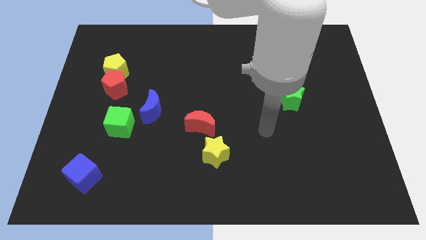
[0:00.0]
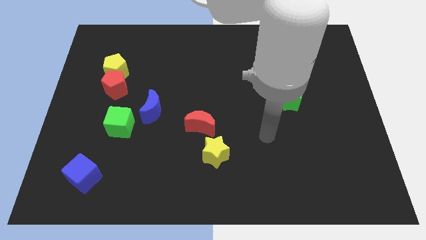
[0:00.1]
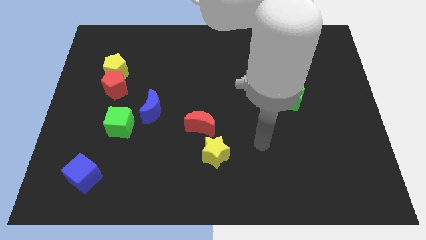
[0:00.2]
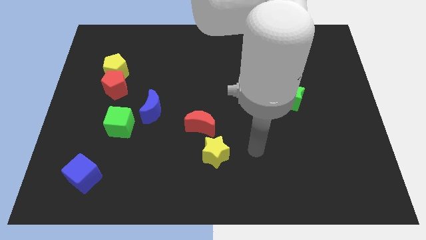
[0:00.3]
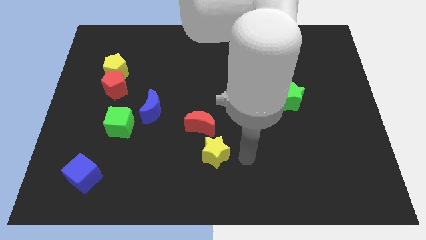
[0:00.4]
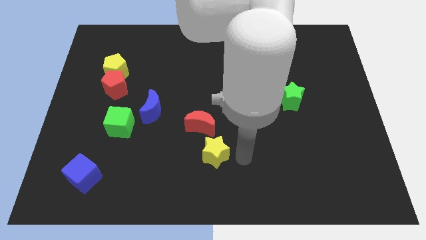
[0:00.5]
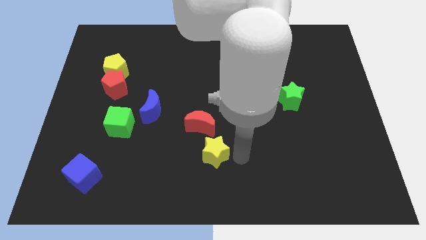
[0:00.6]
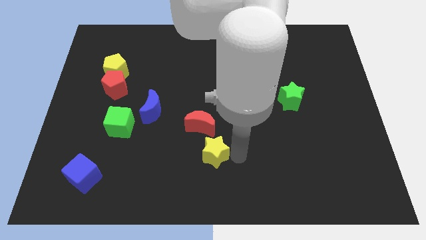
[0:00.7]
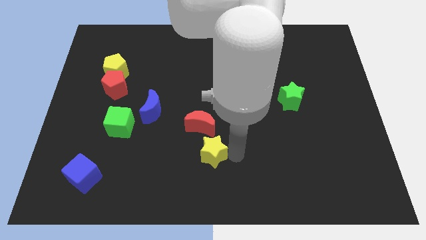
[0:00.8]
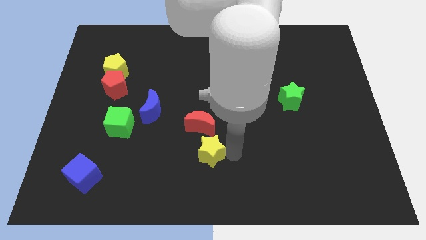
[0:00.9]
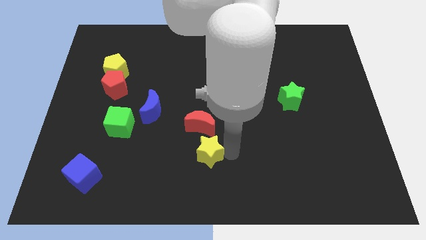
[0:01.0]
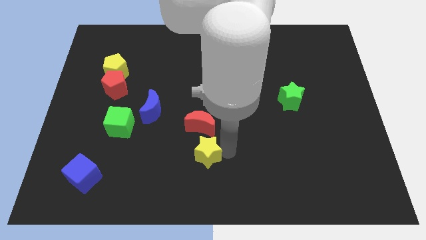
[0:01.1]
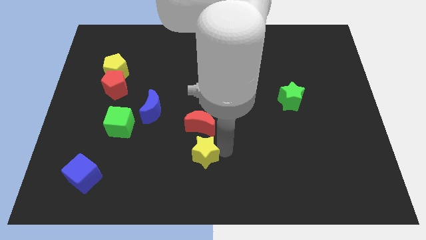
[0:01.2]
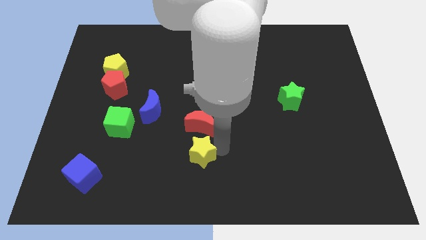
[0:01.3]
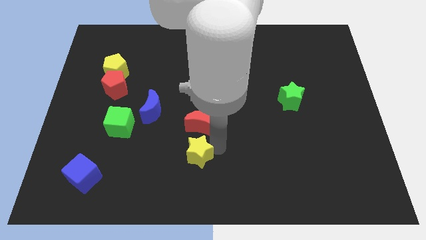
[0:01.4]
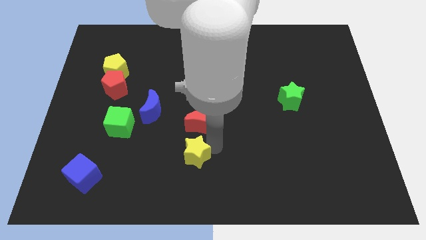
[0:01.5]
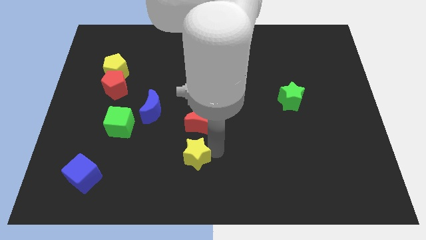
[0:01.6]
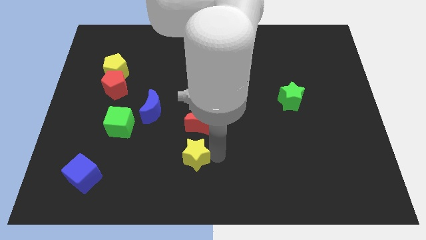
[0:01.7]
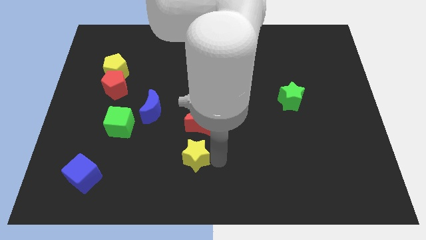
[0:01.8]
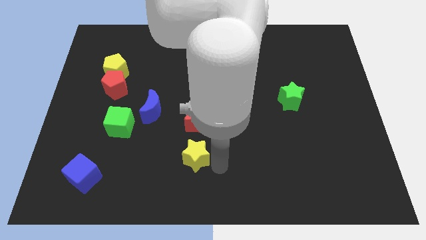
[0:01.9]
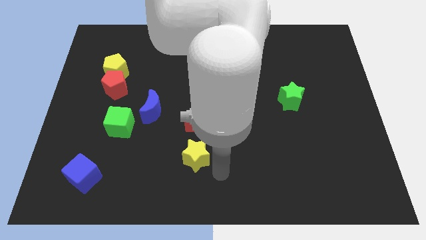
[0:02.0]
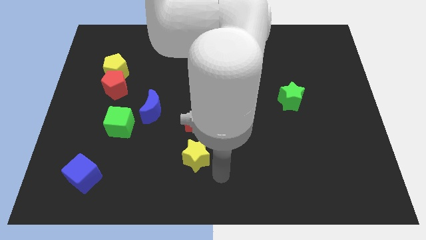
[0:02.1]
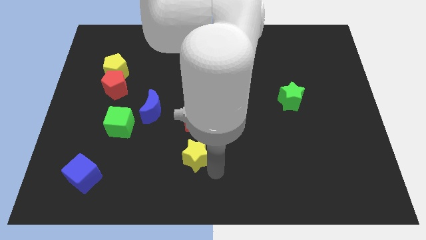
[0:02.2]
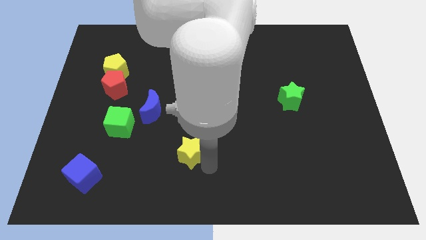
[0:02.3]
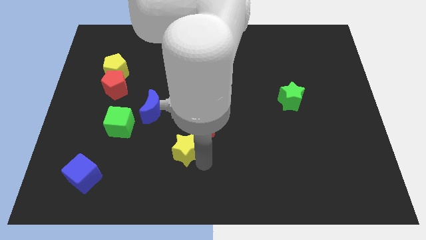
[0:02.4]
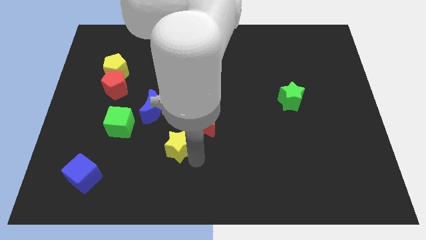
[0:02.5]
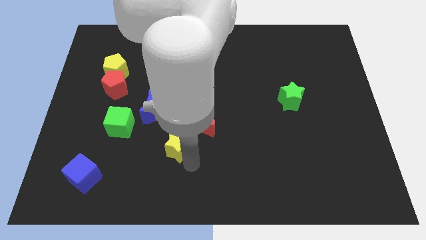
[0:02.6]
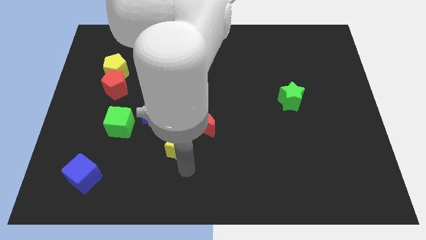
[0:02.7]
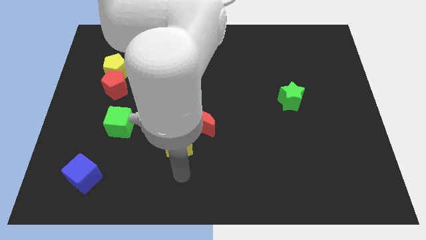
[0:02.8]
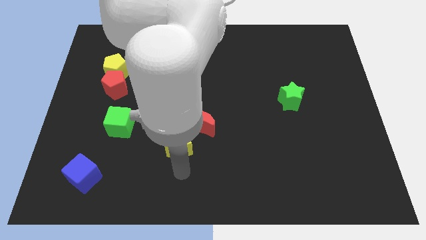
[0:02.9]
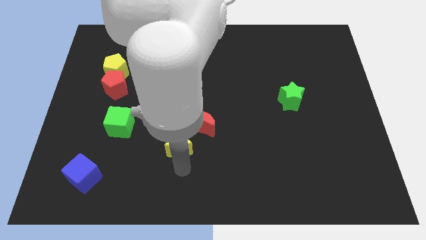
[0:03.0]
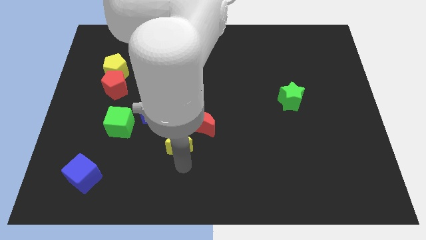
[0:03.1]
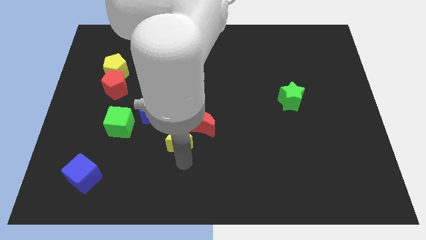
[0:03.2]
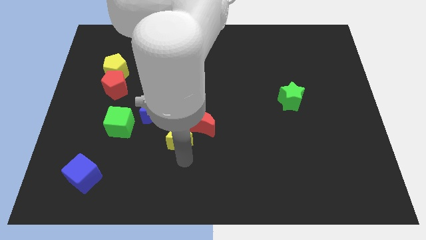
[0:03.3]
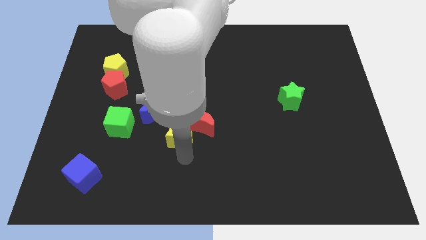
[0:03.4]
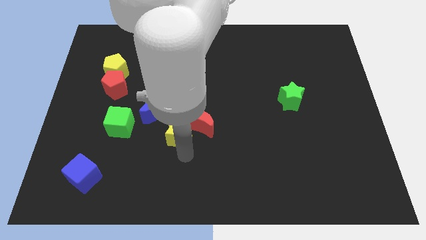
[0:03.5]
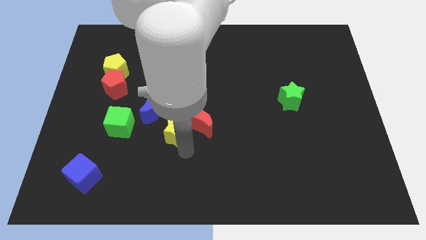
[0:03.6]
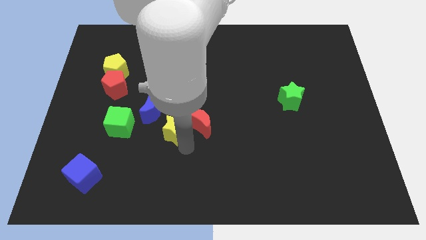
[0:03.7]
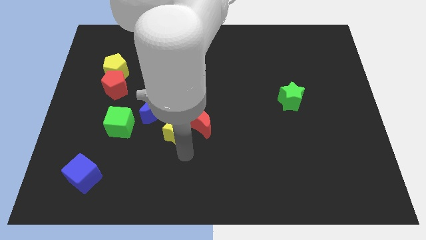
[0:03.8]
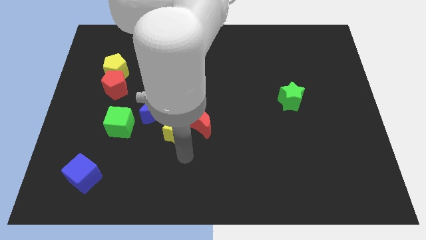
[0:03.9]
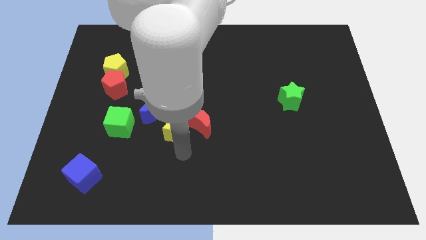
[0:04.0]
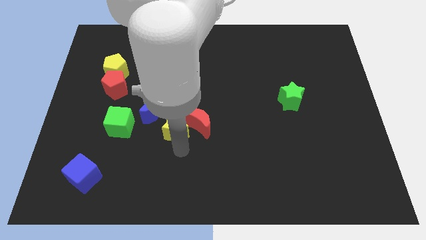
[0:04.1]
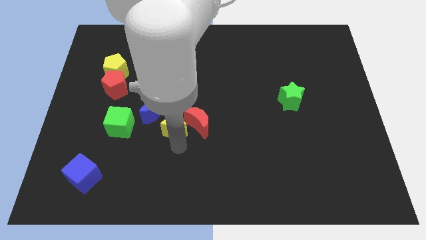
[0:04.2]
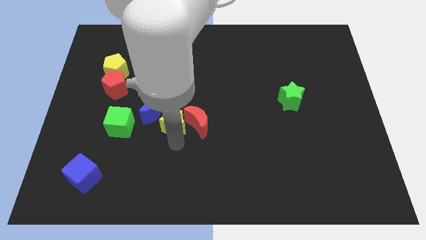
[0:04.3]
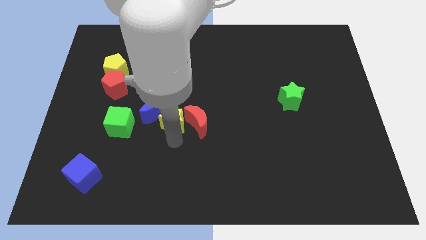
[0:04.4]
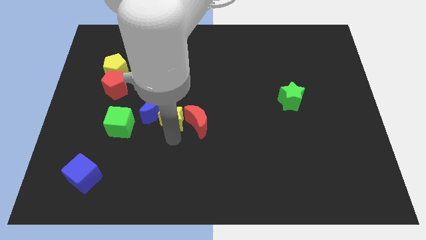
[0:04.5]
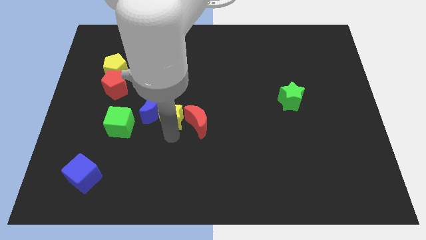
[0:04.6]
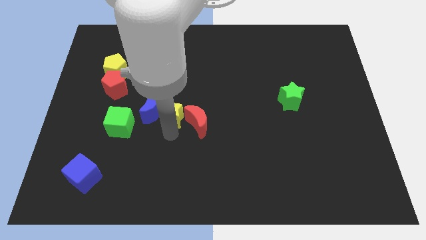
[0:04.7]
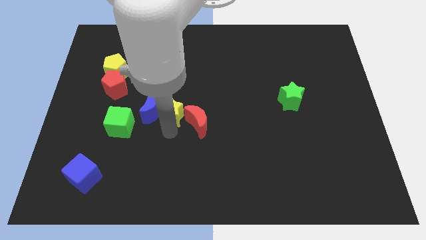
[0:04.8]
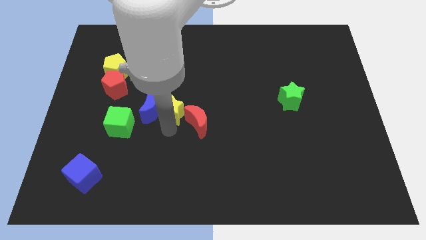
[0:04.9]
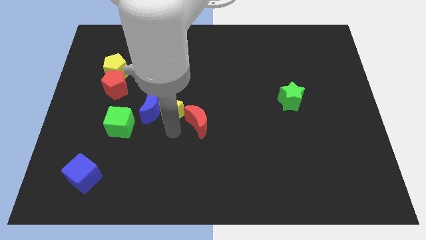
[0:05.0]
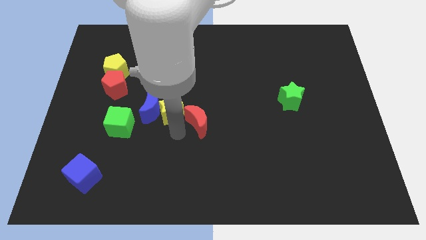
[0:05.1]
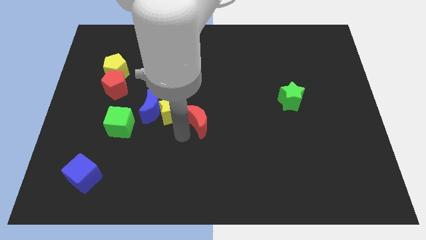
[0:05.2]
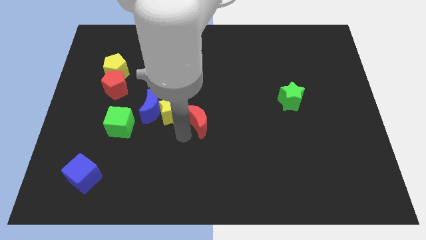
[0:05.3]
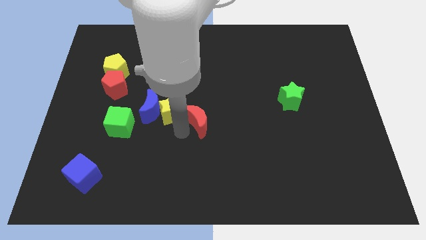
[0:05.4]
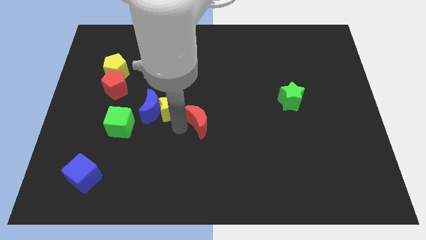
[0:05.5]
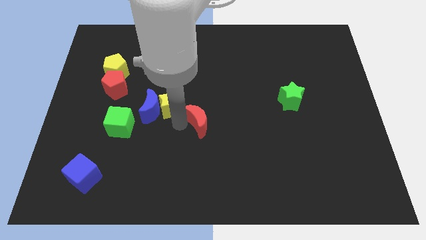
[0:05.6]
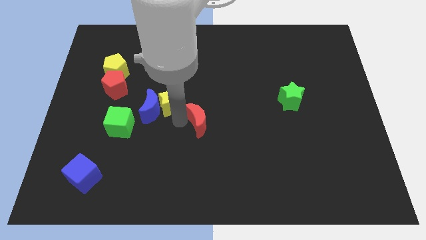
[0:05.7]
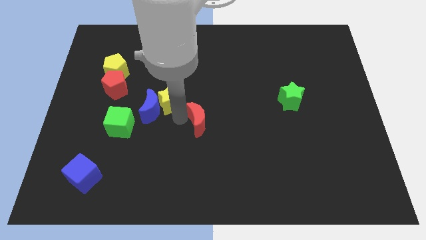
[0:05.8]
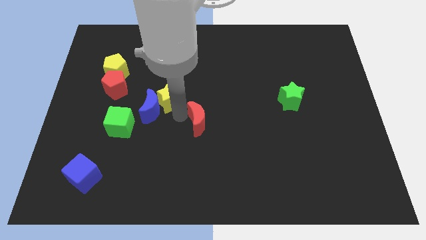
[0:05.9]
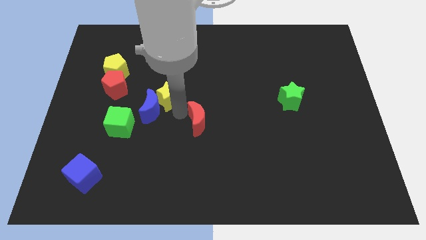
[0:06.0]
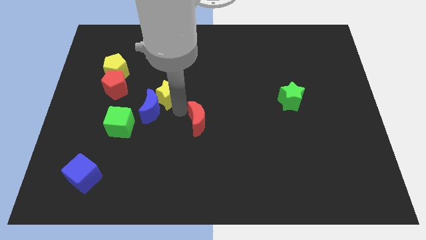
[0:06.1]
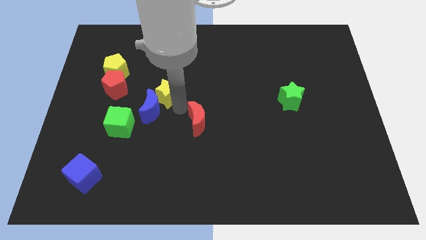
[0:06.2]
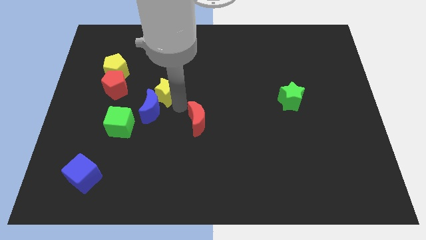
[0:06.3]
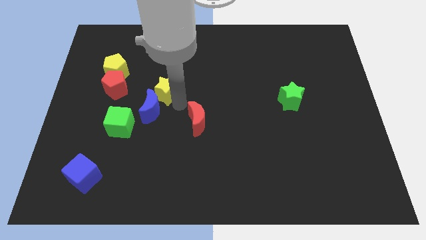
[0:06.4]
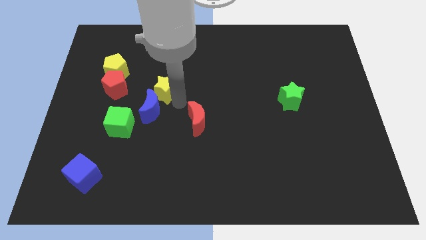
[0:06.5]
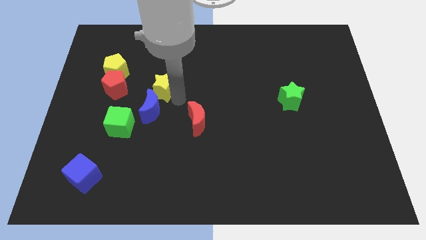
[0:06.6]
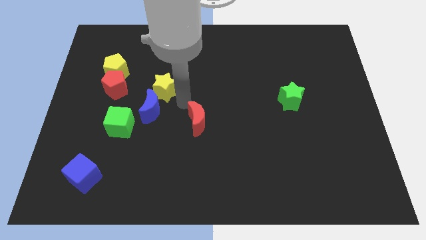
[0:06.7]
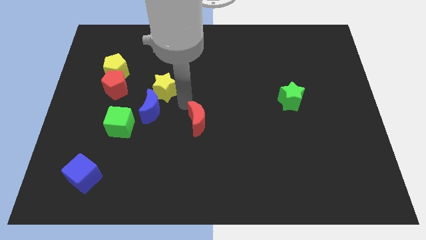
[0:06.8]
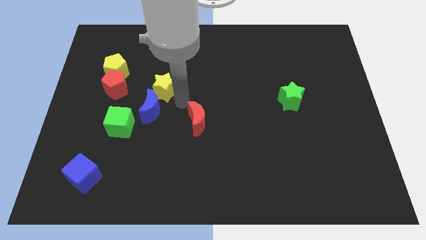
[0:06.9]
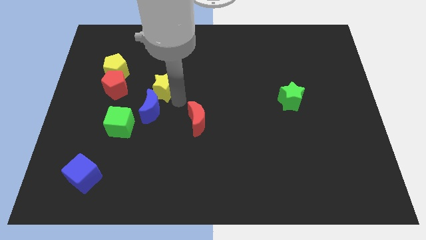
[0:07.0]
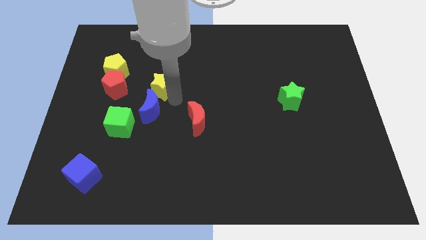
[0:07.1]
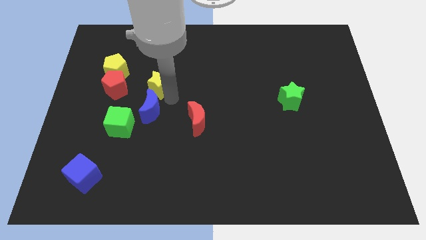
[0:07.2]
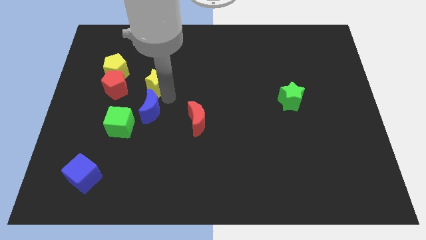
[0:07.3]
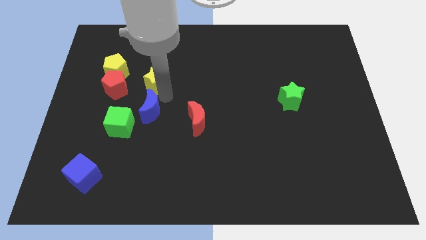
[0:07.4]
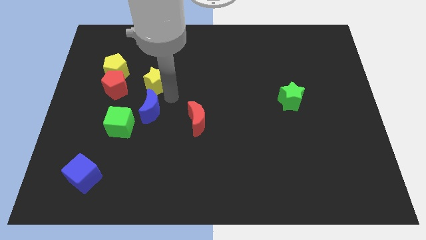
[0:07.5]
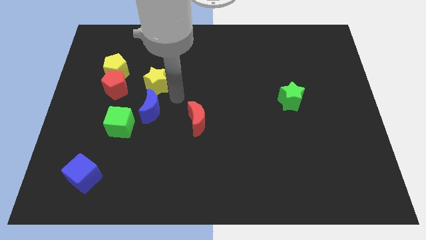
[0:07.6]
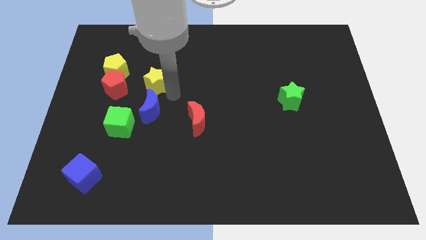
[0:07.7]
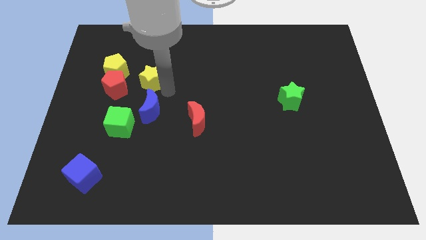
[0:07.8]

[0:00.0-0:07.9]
slide the yellow star to the top right of the red pentagon
